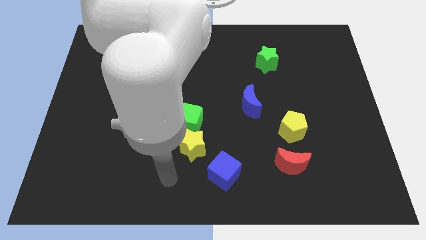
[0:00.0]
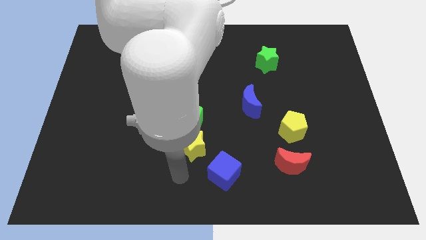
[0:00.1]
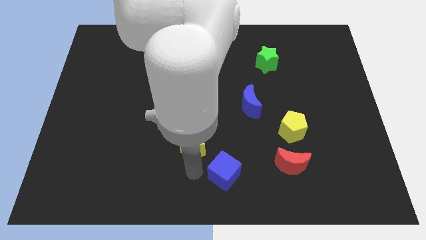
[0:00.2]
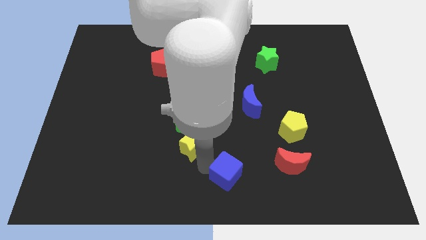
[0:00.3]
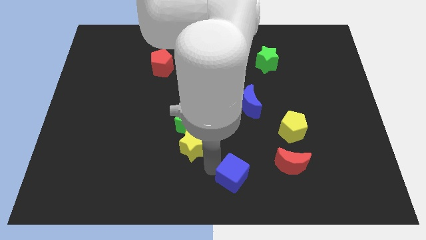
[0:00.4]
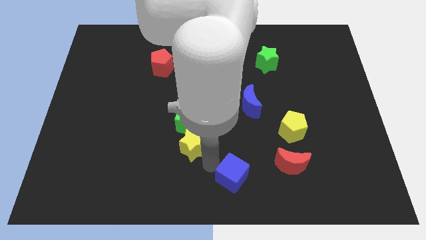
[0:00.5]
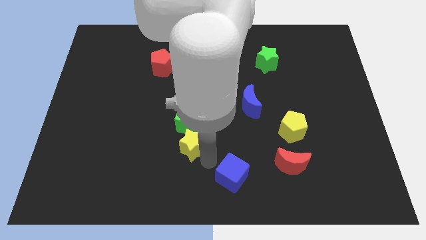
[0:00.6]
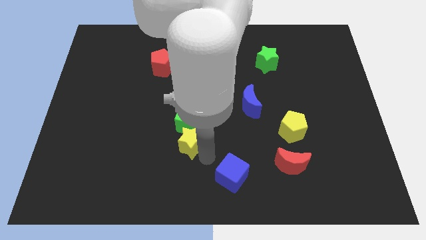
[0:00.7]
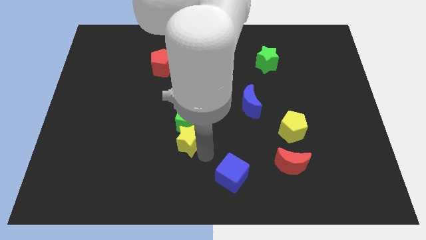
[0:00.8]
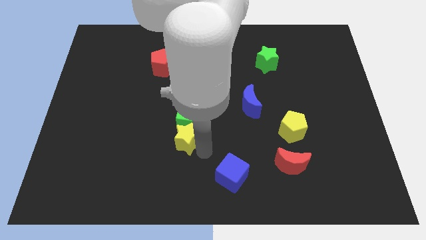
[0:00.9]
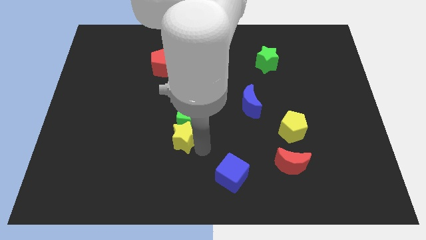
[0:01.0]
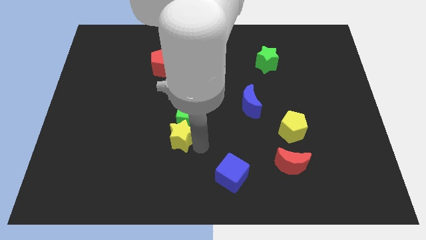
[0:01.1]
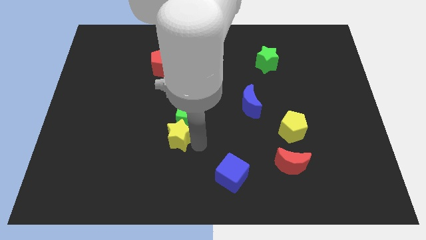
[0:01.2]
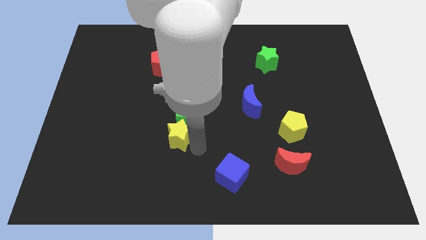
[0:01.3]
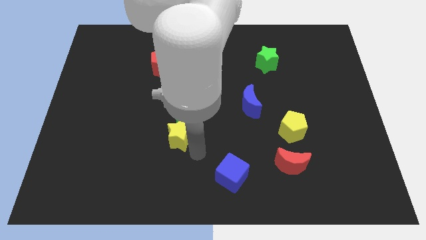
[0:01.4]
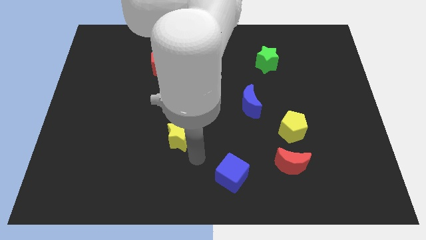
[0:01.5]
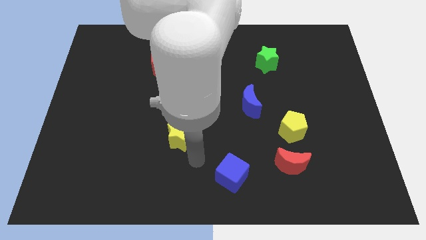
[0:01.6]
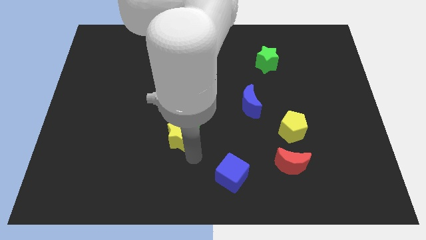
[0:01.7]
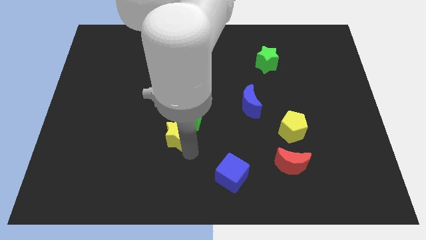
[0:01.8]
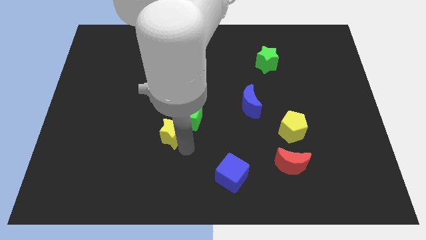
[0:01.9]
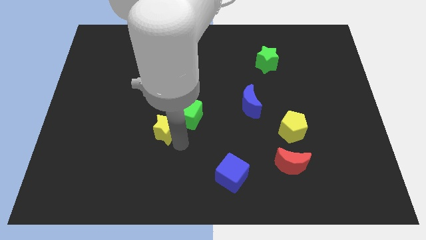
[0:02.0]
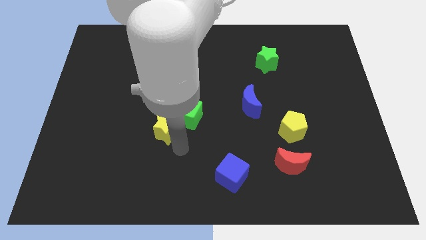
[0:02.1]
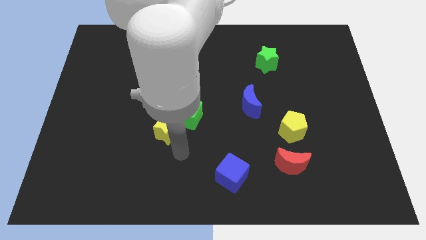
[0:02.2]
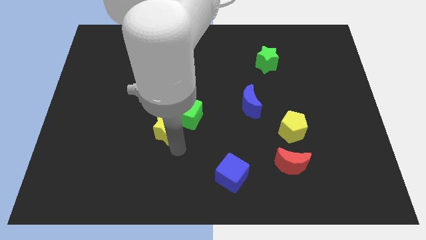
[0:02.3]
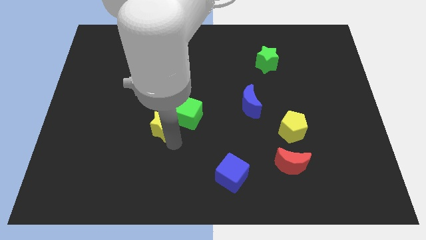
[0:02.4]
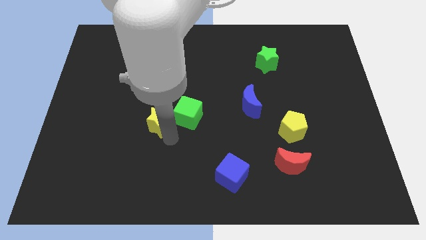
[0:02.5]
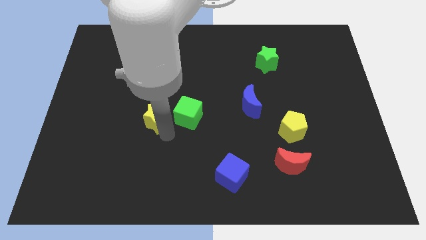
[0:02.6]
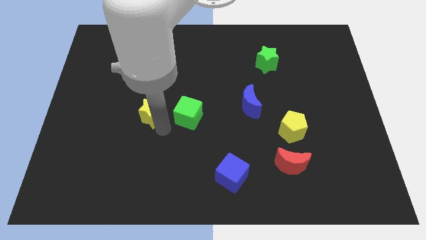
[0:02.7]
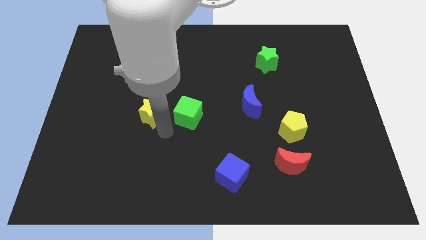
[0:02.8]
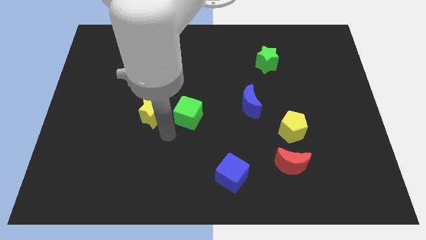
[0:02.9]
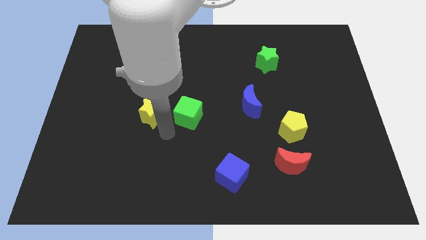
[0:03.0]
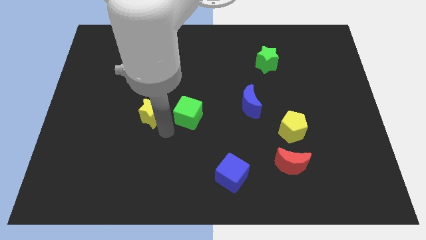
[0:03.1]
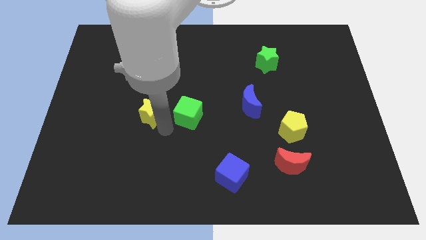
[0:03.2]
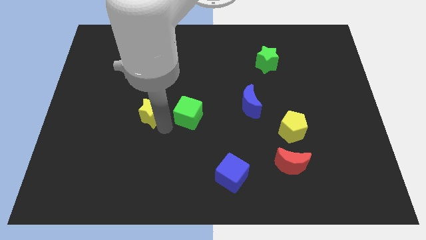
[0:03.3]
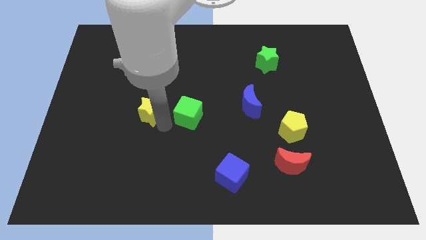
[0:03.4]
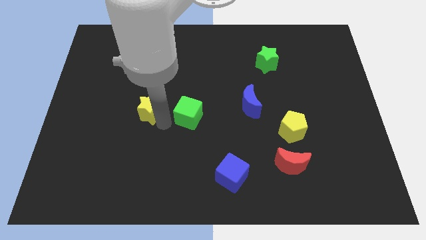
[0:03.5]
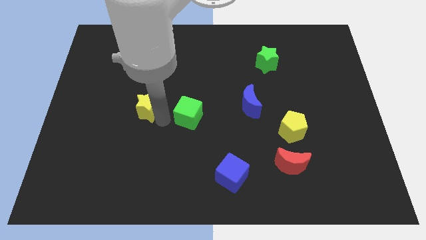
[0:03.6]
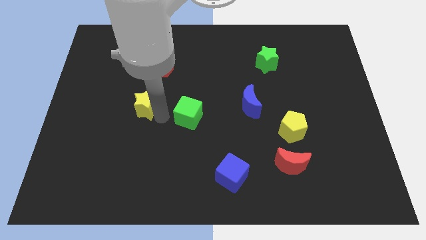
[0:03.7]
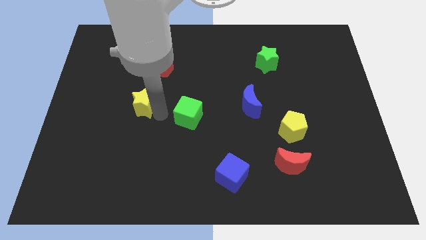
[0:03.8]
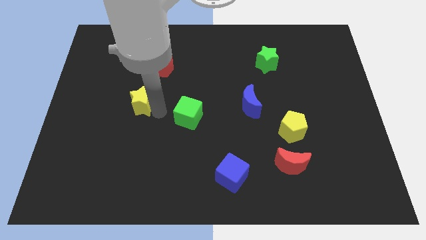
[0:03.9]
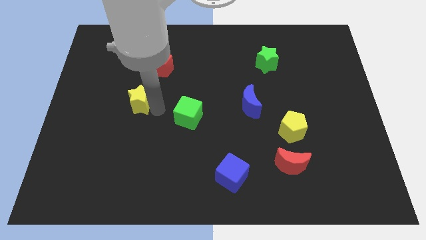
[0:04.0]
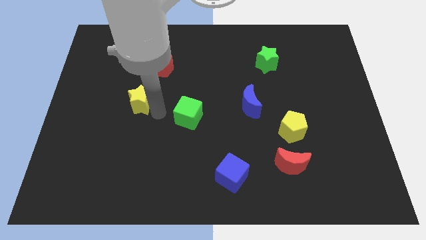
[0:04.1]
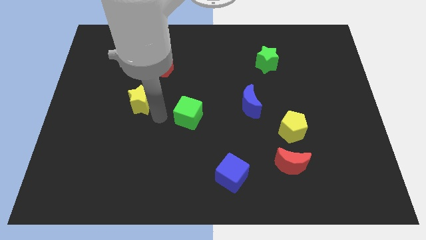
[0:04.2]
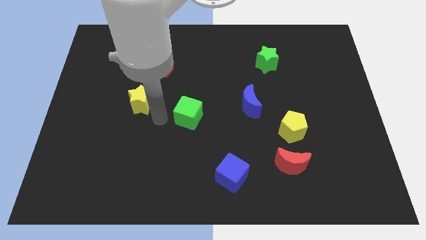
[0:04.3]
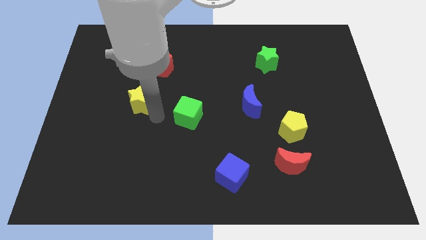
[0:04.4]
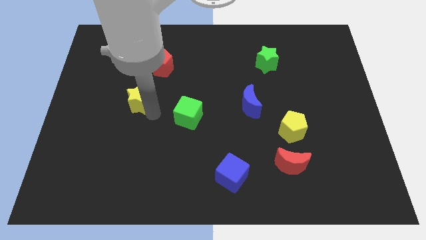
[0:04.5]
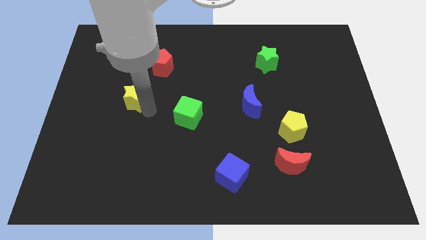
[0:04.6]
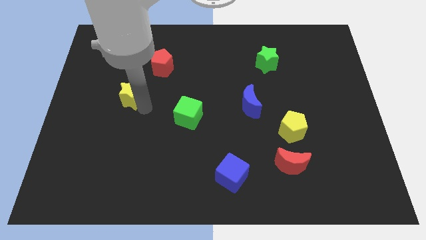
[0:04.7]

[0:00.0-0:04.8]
move the yellow star upwards and left

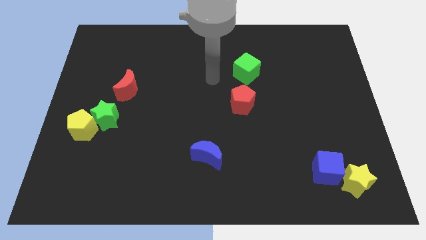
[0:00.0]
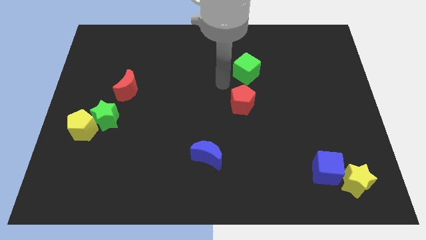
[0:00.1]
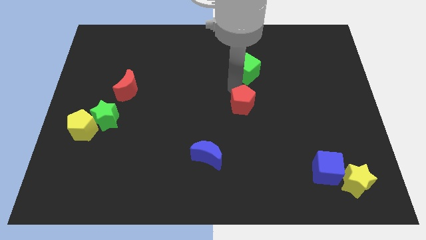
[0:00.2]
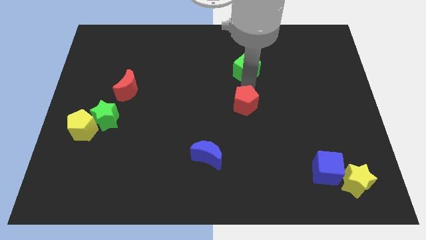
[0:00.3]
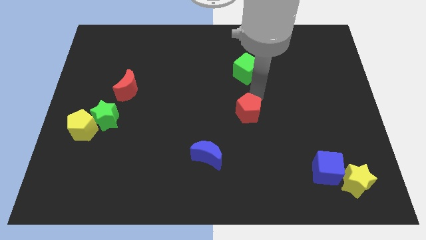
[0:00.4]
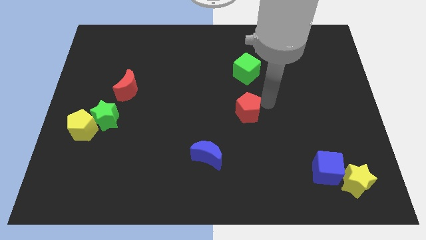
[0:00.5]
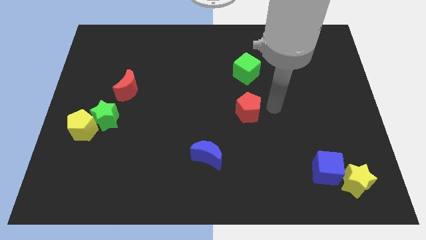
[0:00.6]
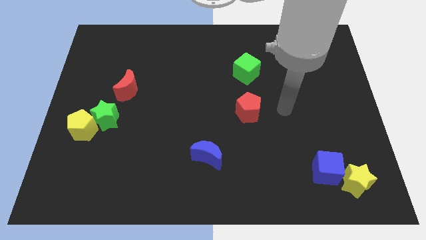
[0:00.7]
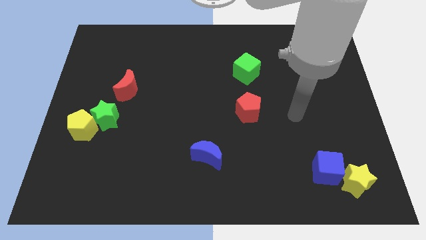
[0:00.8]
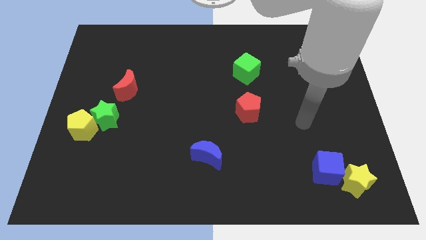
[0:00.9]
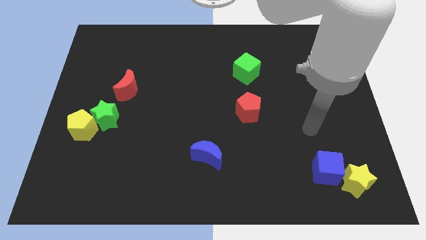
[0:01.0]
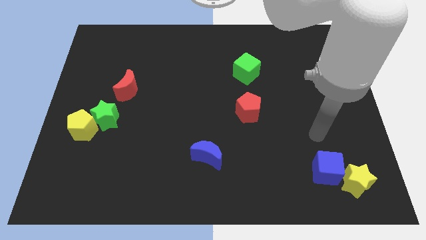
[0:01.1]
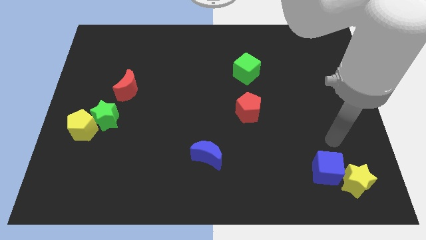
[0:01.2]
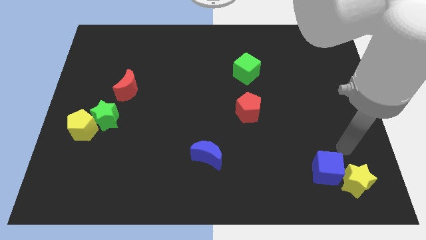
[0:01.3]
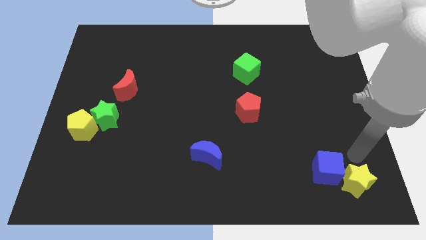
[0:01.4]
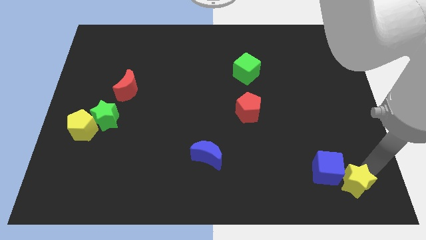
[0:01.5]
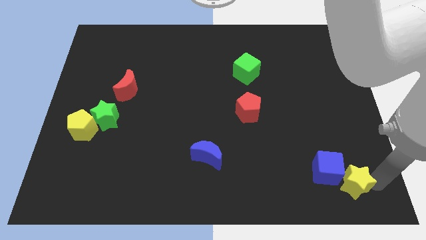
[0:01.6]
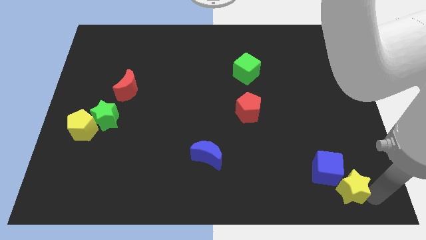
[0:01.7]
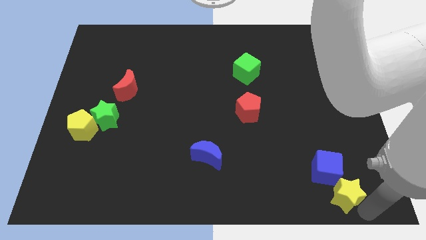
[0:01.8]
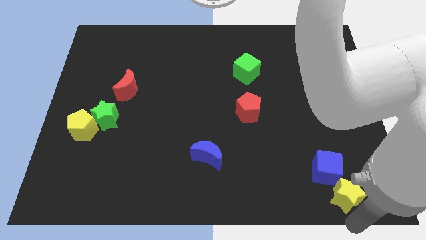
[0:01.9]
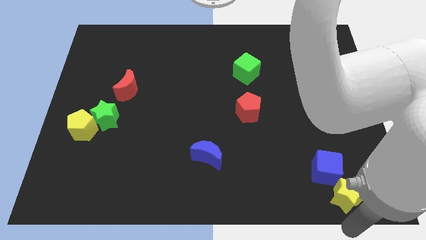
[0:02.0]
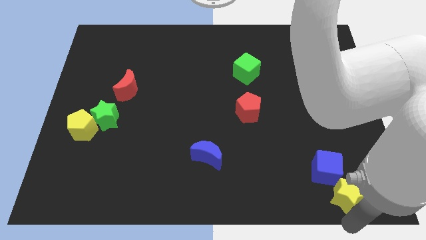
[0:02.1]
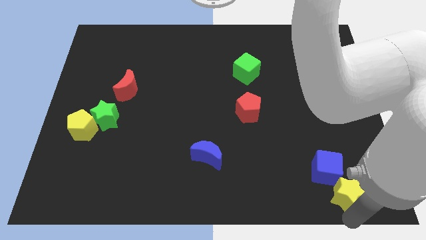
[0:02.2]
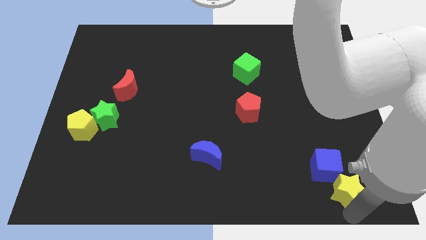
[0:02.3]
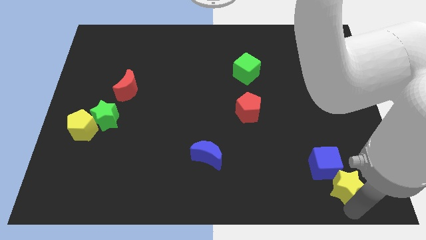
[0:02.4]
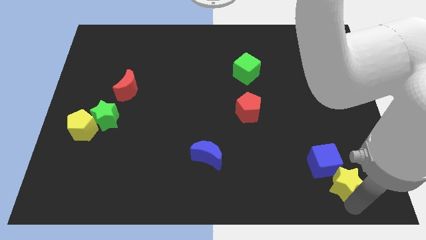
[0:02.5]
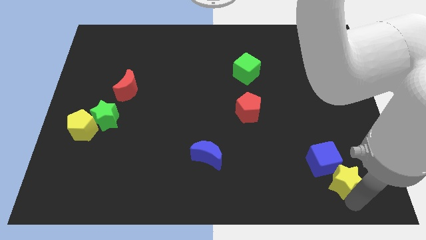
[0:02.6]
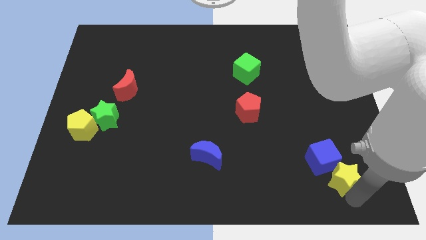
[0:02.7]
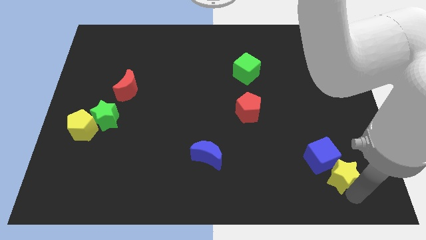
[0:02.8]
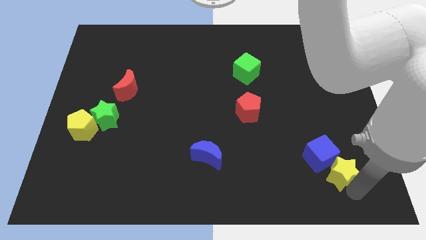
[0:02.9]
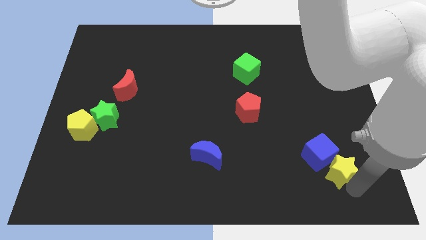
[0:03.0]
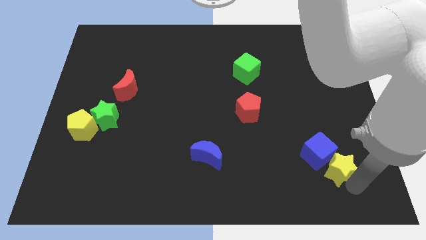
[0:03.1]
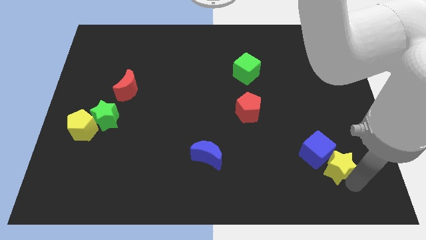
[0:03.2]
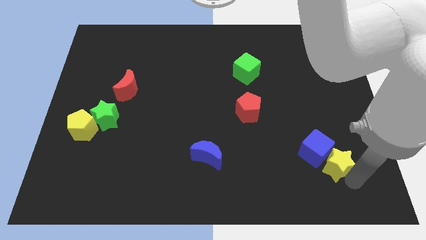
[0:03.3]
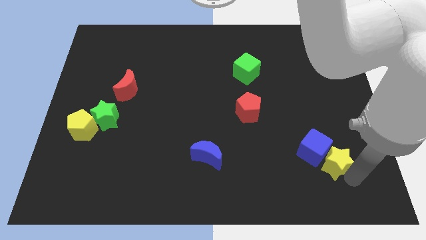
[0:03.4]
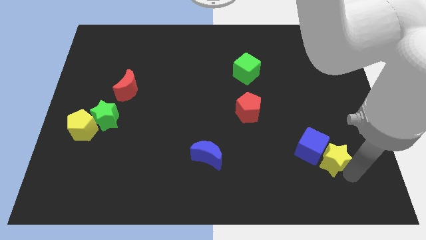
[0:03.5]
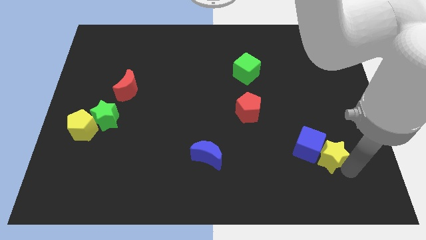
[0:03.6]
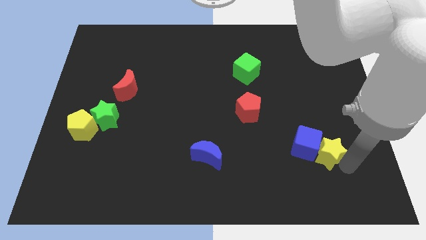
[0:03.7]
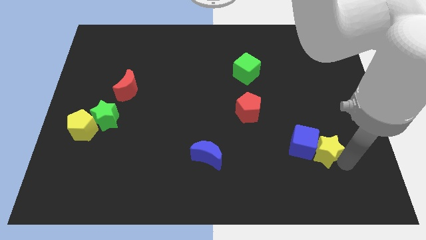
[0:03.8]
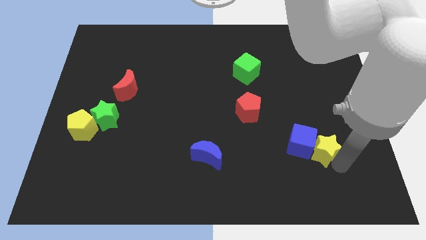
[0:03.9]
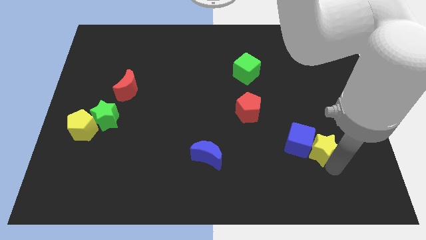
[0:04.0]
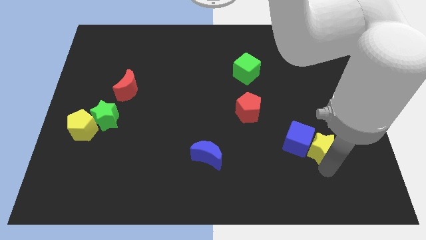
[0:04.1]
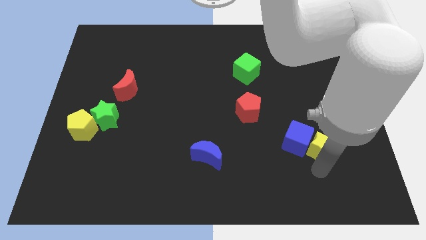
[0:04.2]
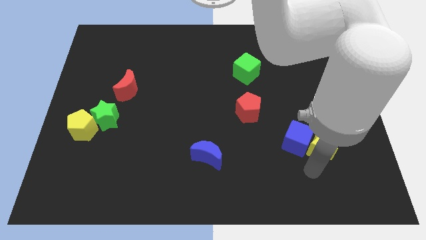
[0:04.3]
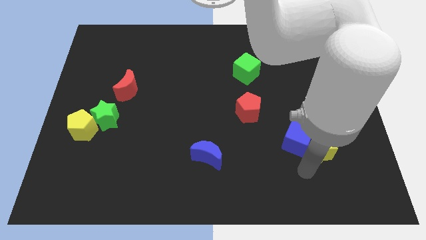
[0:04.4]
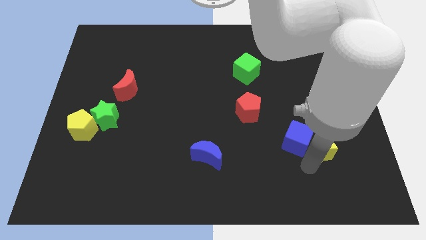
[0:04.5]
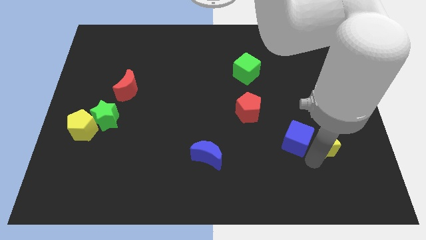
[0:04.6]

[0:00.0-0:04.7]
slightly push the yellow star up
